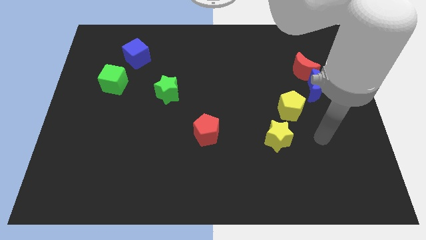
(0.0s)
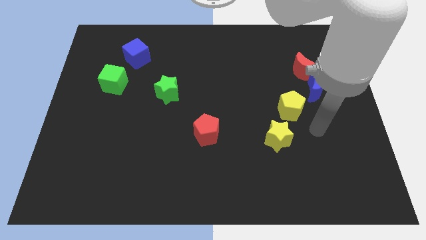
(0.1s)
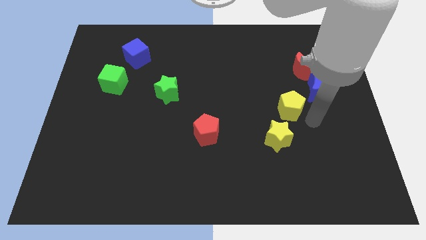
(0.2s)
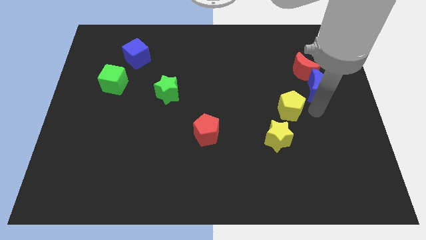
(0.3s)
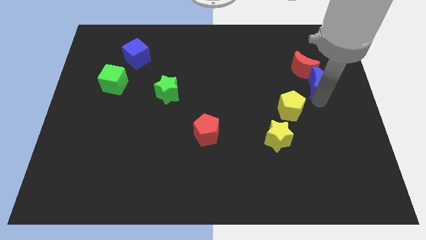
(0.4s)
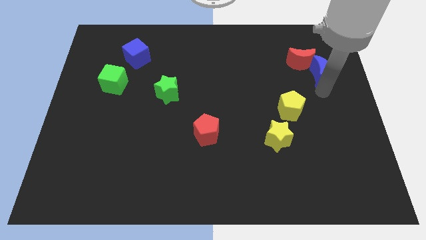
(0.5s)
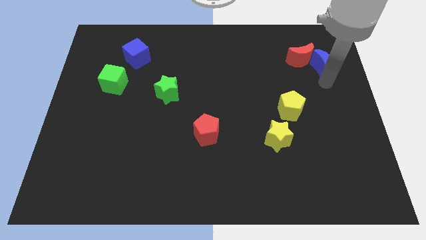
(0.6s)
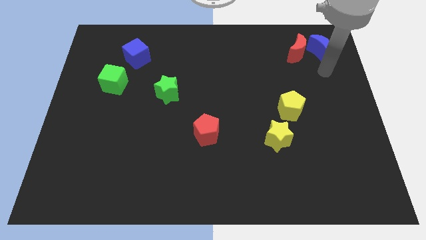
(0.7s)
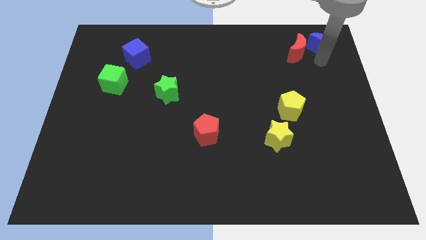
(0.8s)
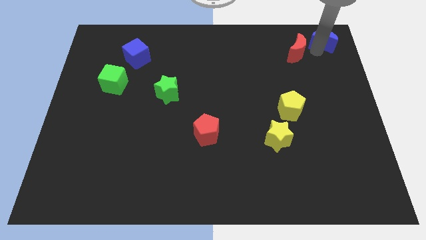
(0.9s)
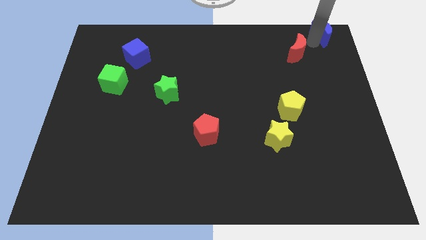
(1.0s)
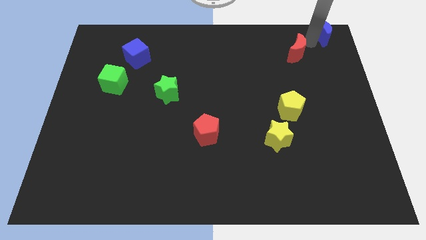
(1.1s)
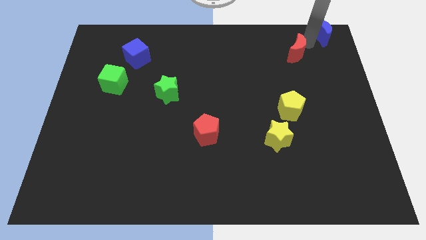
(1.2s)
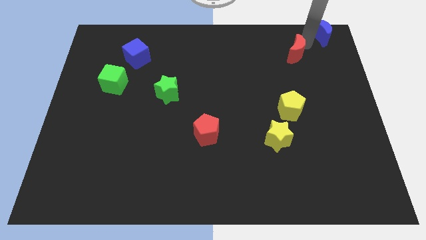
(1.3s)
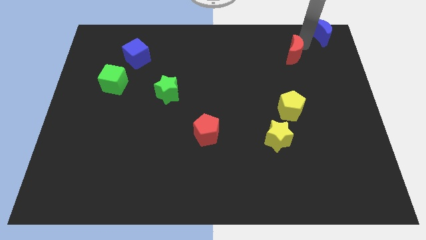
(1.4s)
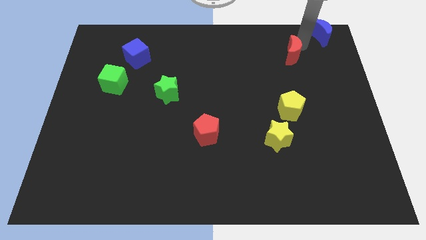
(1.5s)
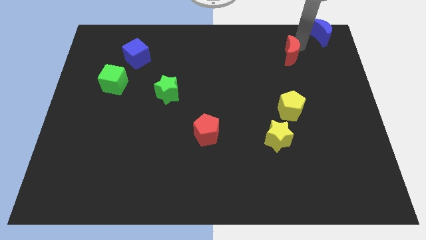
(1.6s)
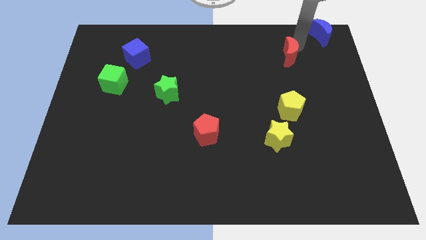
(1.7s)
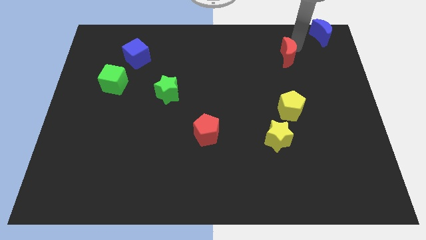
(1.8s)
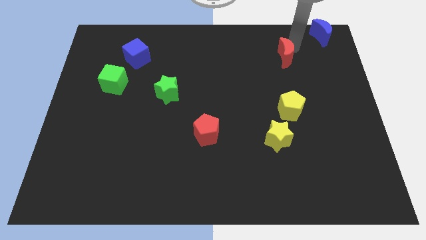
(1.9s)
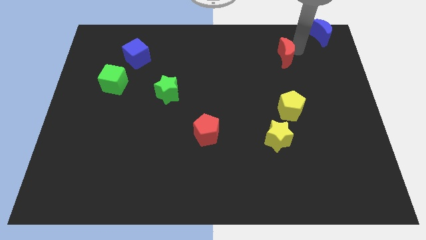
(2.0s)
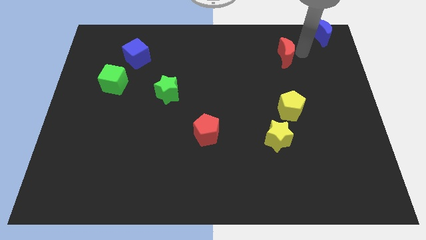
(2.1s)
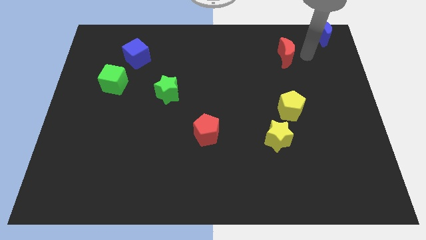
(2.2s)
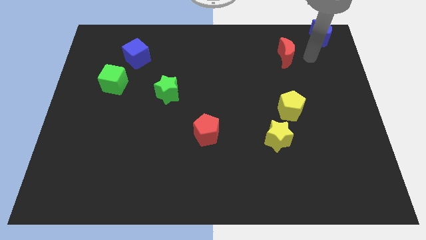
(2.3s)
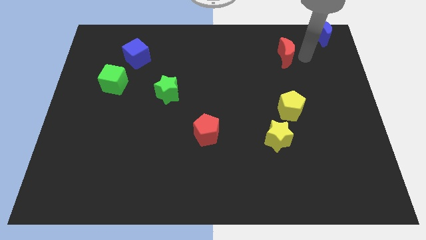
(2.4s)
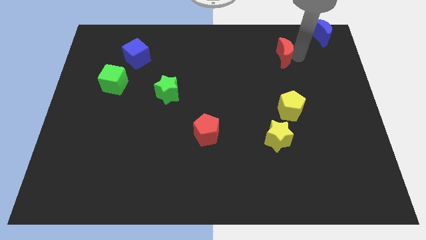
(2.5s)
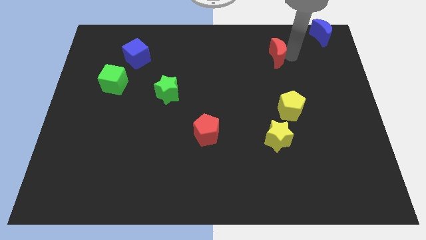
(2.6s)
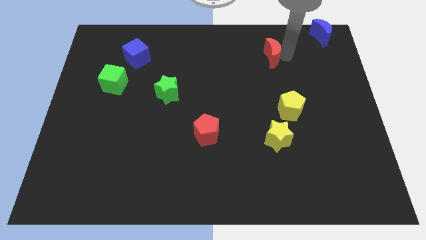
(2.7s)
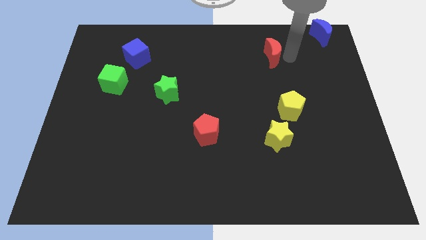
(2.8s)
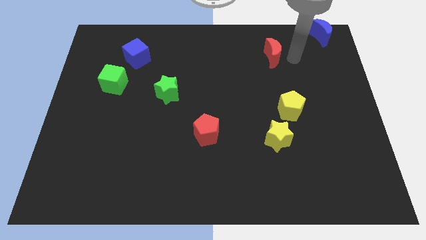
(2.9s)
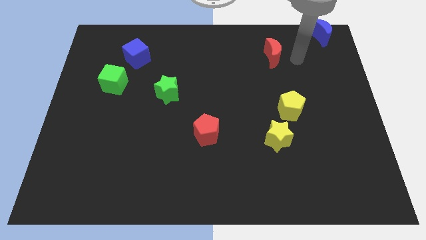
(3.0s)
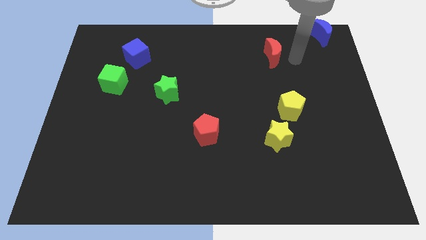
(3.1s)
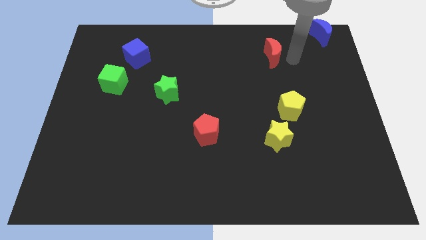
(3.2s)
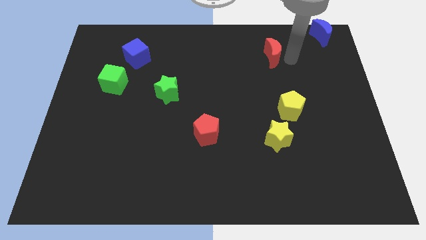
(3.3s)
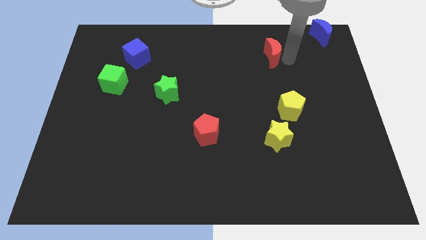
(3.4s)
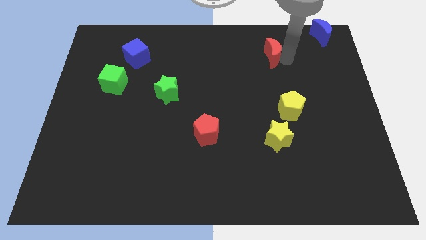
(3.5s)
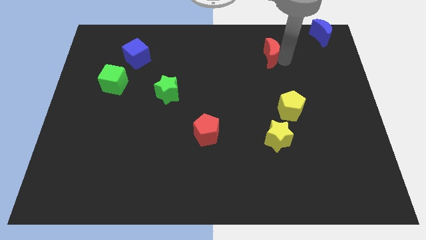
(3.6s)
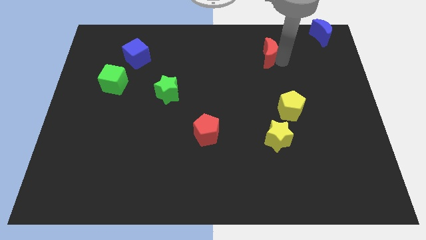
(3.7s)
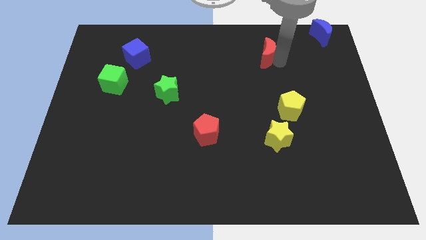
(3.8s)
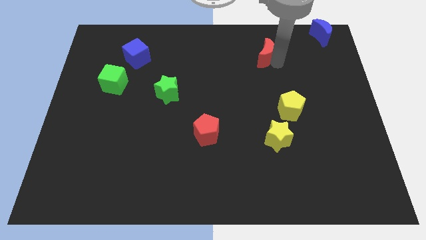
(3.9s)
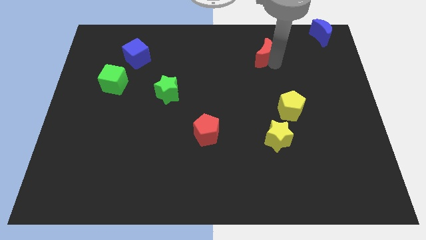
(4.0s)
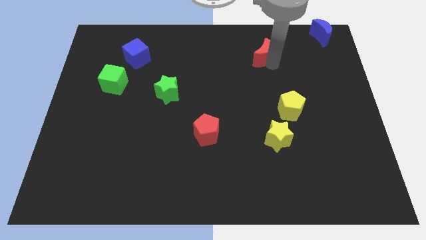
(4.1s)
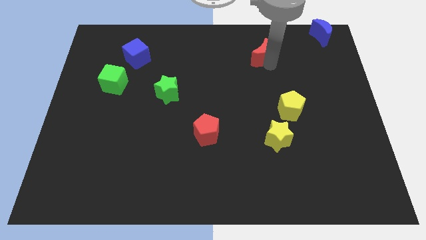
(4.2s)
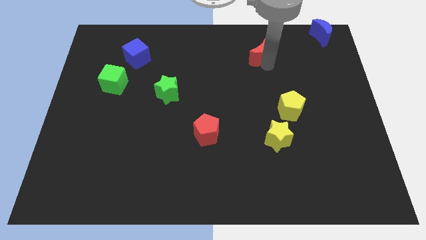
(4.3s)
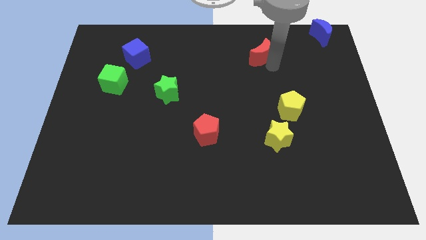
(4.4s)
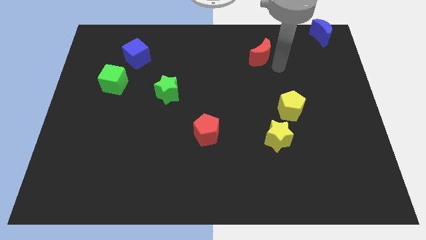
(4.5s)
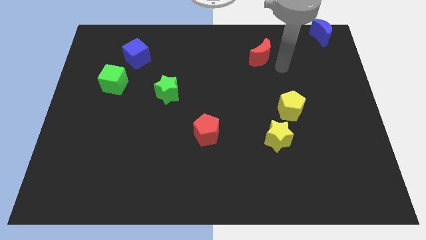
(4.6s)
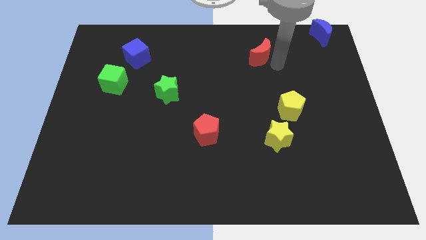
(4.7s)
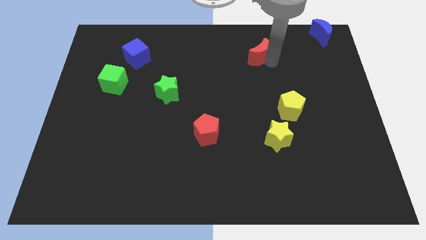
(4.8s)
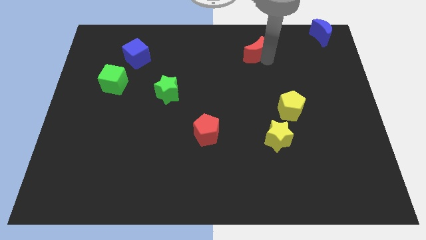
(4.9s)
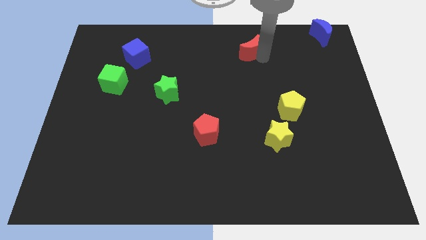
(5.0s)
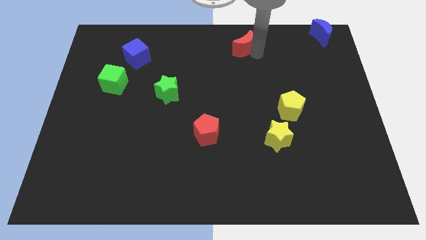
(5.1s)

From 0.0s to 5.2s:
move the red moon to the top side
